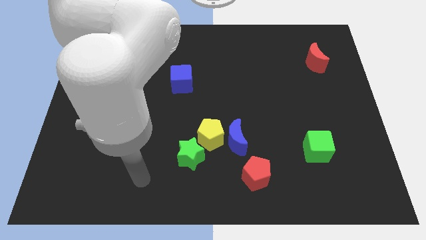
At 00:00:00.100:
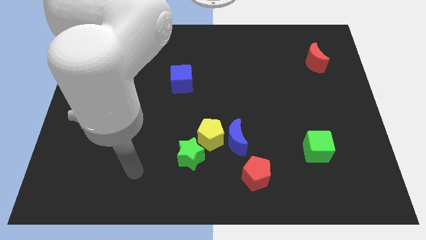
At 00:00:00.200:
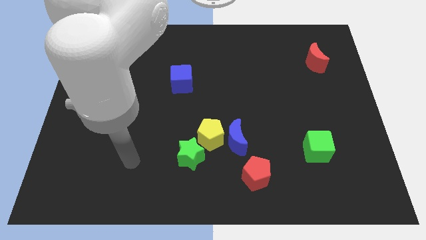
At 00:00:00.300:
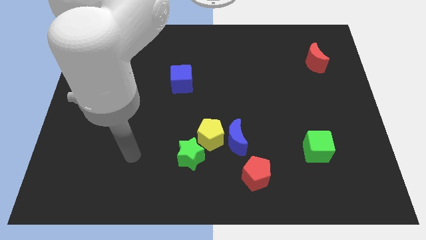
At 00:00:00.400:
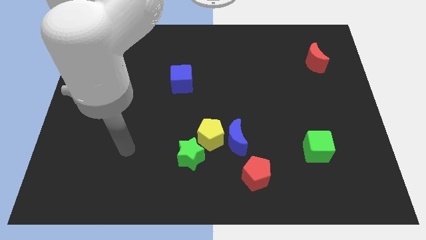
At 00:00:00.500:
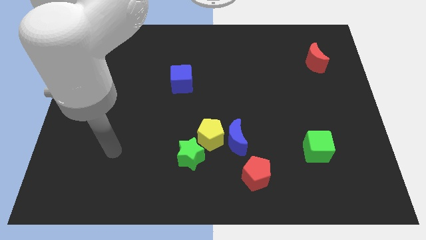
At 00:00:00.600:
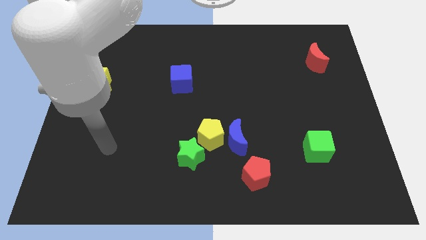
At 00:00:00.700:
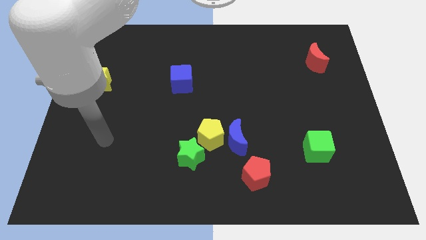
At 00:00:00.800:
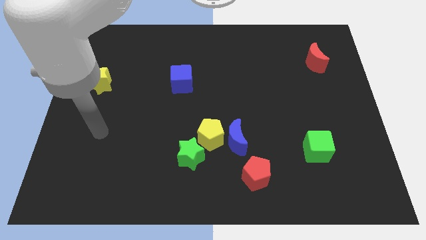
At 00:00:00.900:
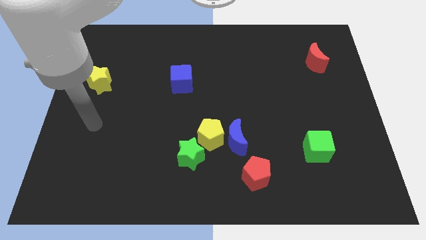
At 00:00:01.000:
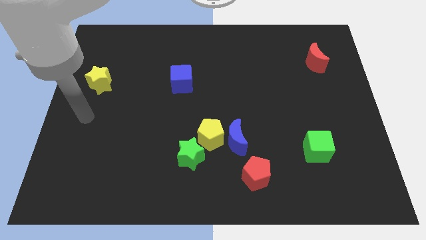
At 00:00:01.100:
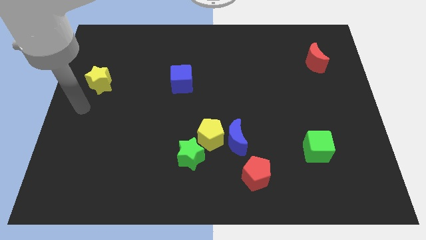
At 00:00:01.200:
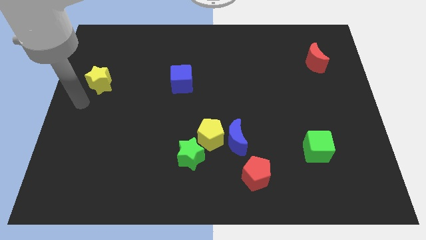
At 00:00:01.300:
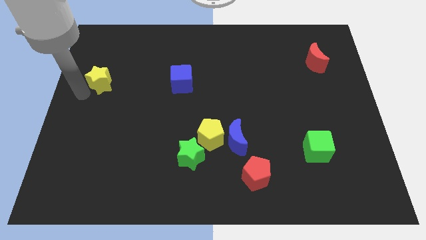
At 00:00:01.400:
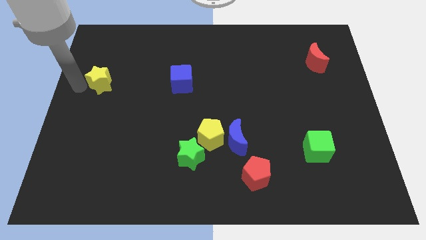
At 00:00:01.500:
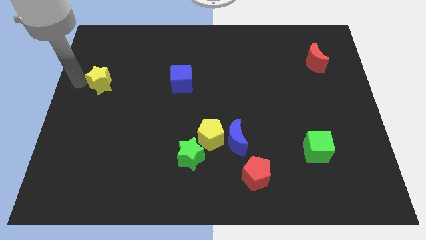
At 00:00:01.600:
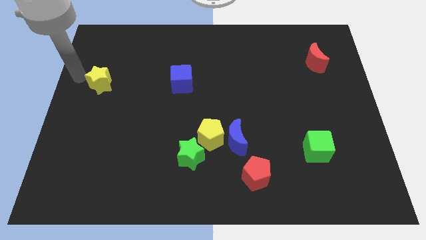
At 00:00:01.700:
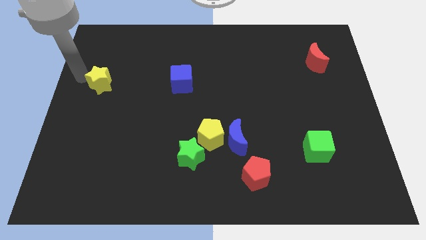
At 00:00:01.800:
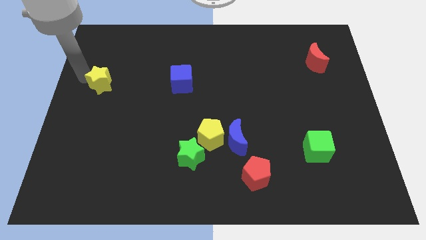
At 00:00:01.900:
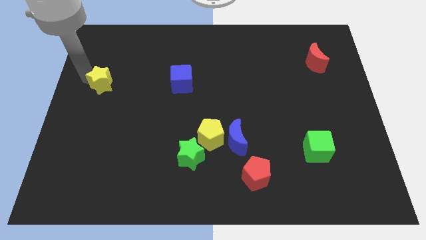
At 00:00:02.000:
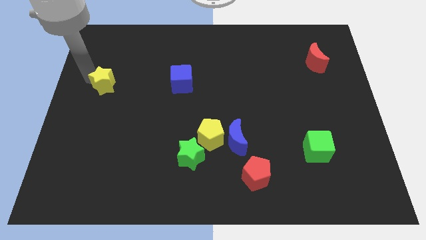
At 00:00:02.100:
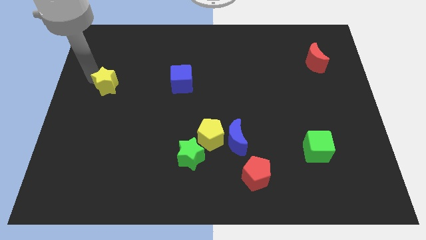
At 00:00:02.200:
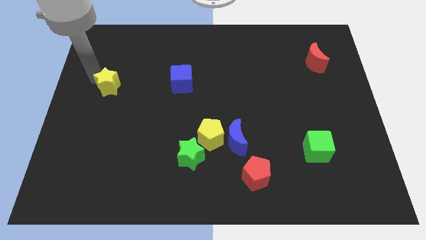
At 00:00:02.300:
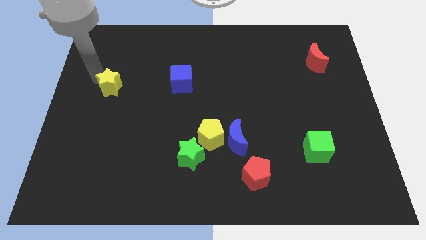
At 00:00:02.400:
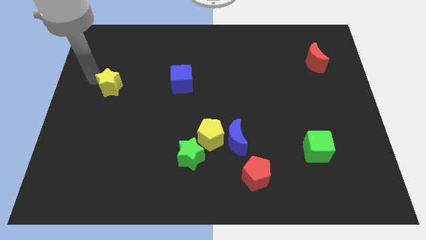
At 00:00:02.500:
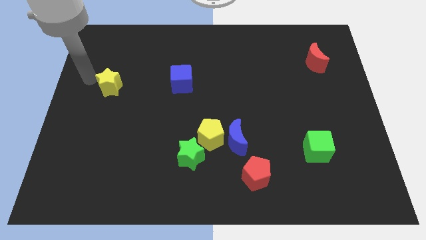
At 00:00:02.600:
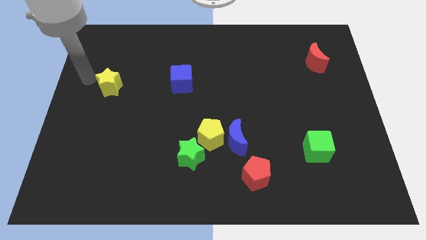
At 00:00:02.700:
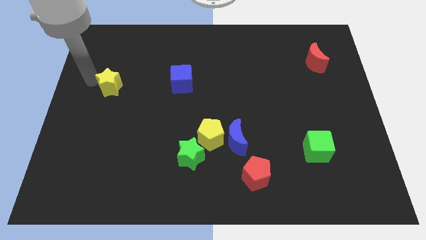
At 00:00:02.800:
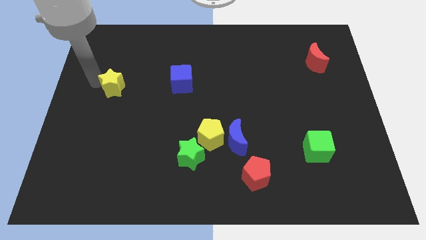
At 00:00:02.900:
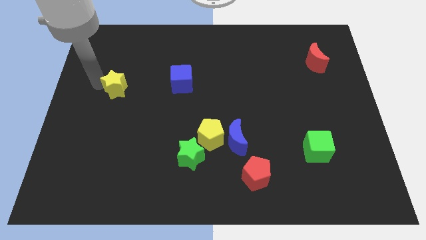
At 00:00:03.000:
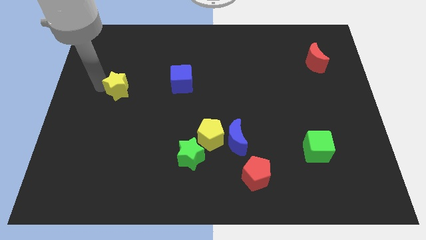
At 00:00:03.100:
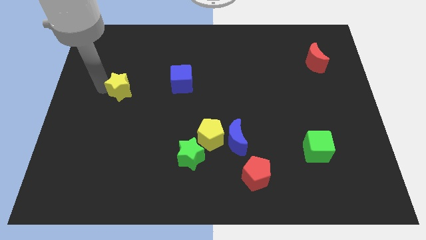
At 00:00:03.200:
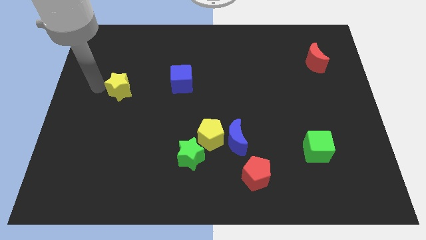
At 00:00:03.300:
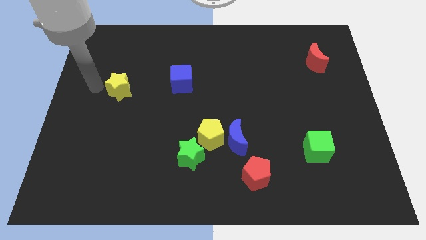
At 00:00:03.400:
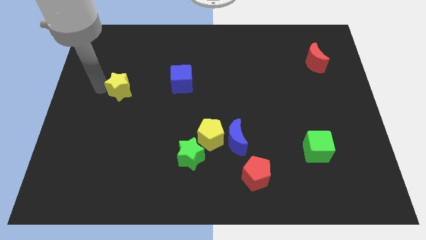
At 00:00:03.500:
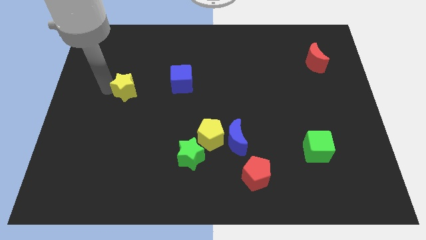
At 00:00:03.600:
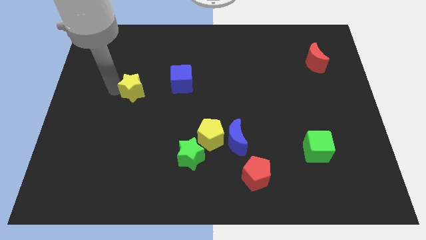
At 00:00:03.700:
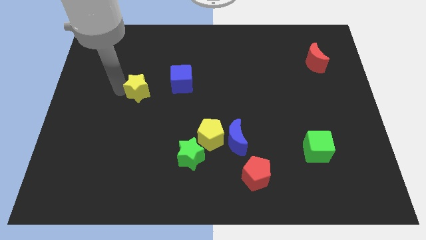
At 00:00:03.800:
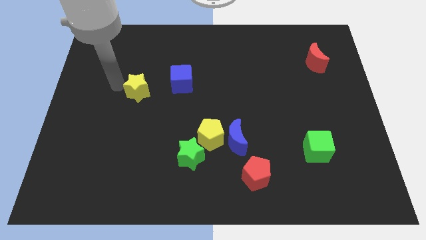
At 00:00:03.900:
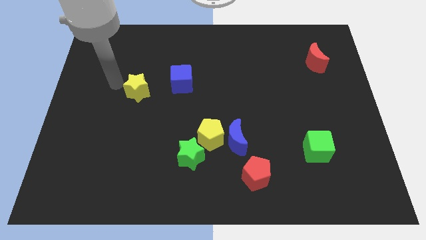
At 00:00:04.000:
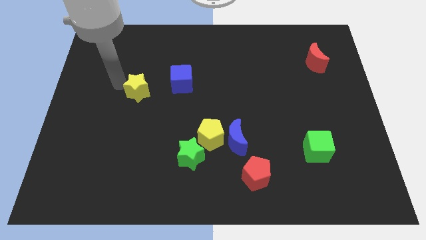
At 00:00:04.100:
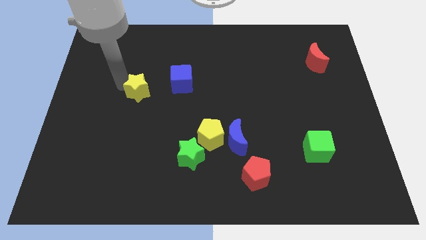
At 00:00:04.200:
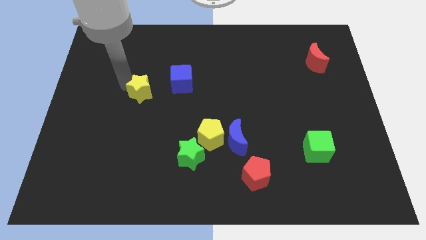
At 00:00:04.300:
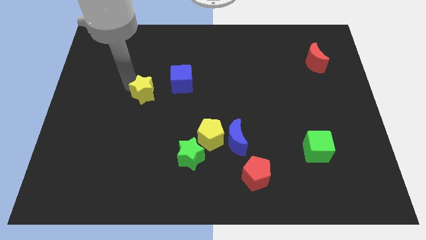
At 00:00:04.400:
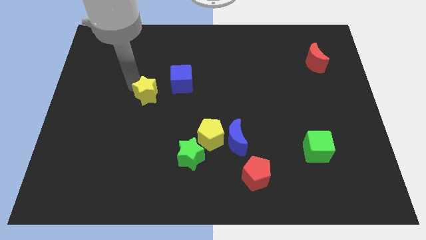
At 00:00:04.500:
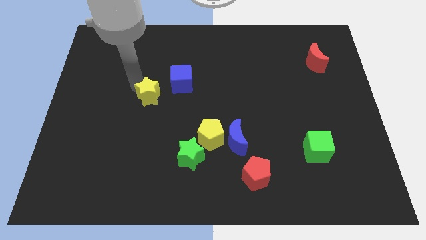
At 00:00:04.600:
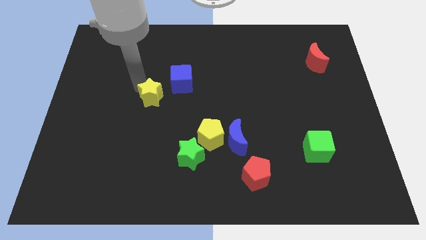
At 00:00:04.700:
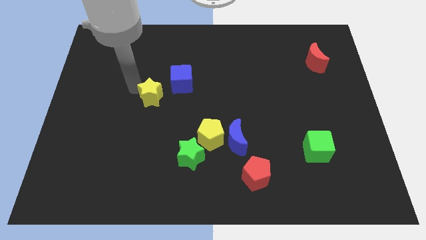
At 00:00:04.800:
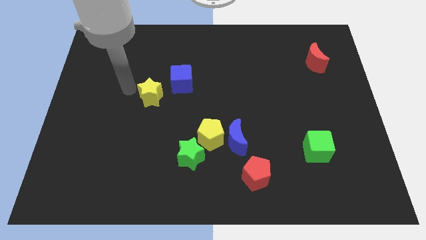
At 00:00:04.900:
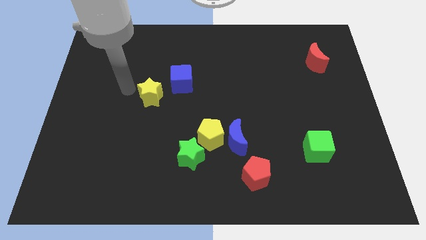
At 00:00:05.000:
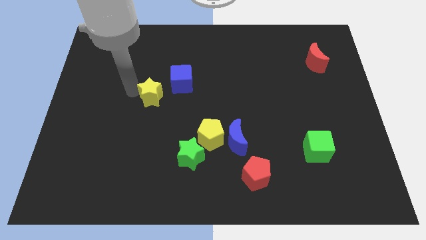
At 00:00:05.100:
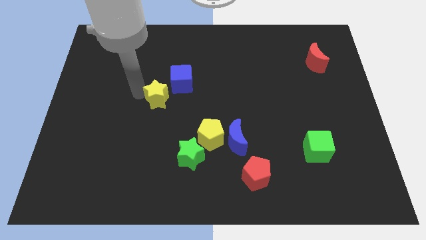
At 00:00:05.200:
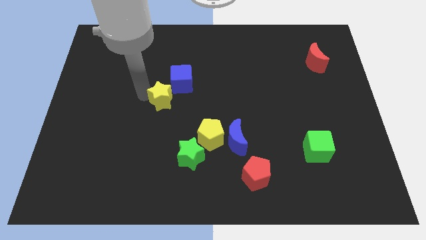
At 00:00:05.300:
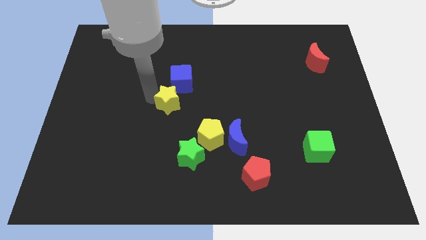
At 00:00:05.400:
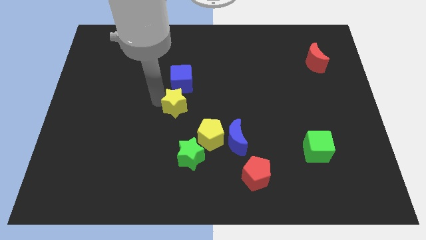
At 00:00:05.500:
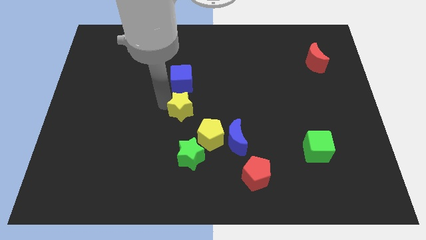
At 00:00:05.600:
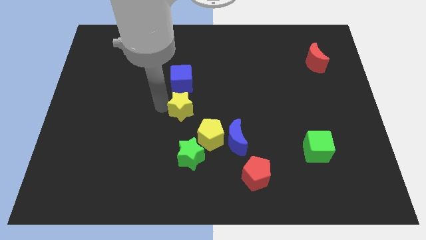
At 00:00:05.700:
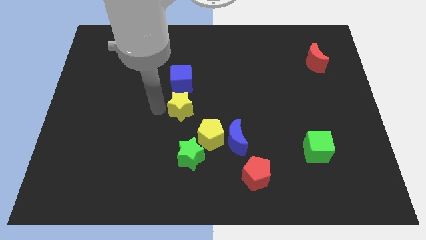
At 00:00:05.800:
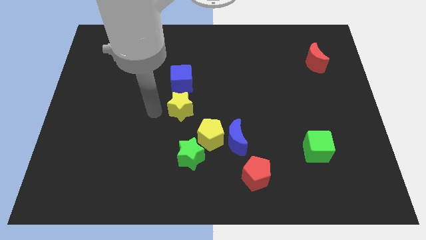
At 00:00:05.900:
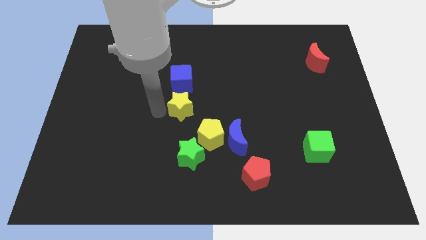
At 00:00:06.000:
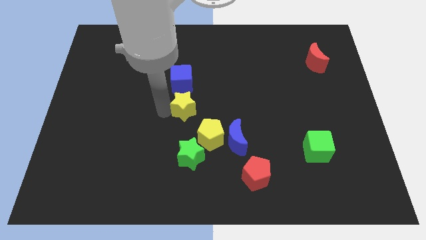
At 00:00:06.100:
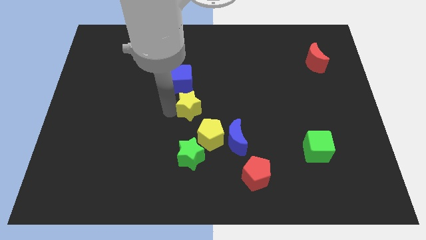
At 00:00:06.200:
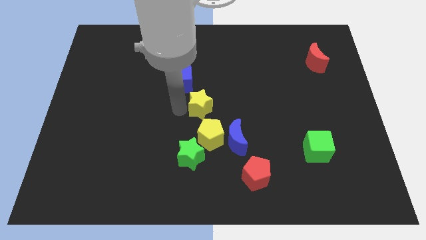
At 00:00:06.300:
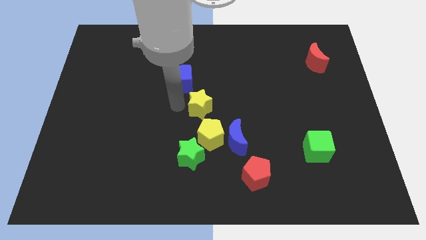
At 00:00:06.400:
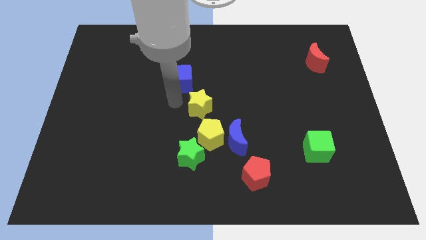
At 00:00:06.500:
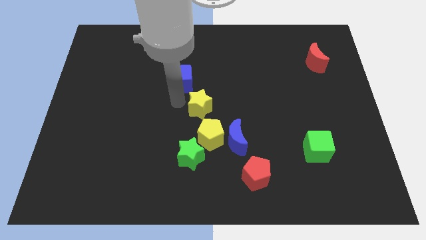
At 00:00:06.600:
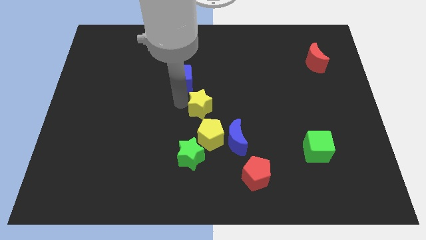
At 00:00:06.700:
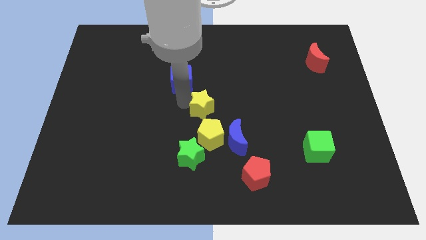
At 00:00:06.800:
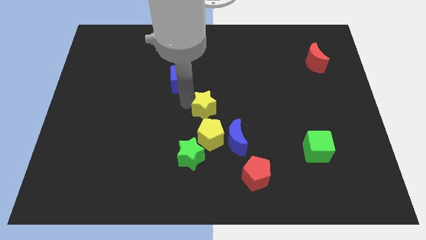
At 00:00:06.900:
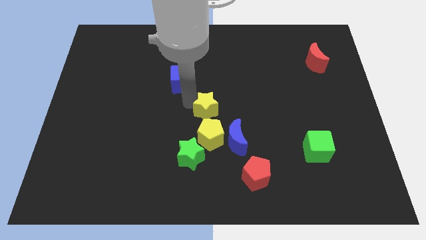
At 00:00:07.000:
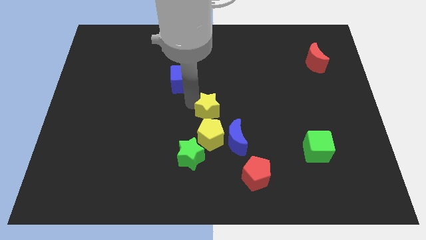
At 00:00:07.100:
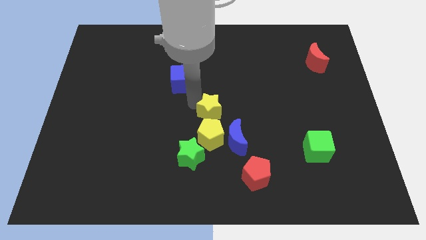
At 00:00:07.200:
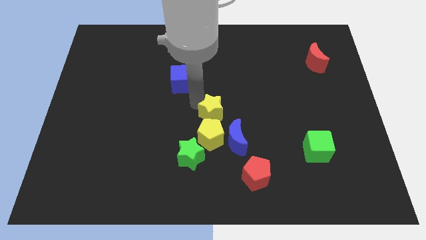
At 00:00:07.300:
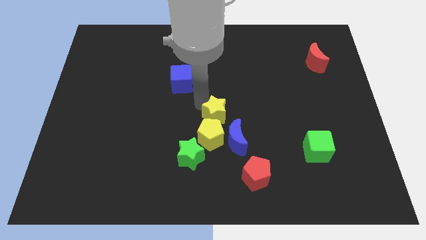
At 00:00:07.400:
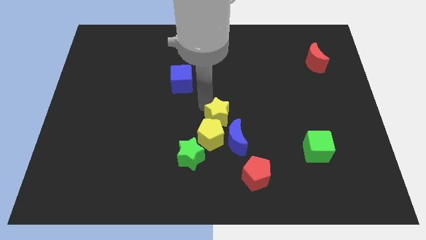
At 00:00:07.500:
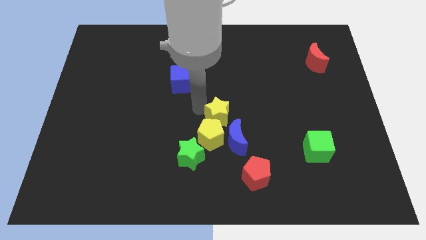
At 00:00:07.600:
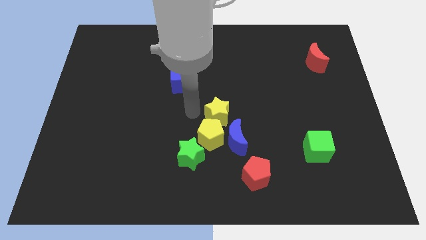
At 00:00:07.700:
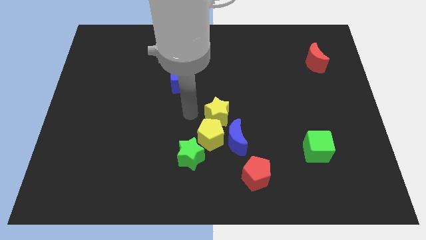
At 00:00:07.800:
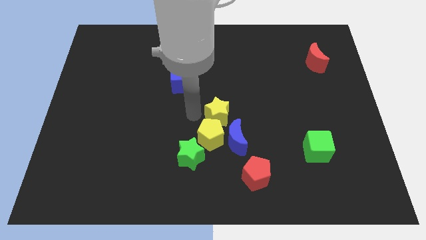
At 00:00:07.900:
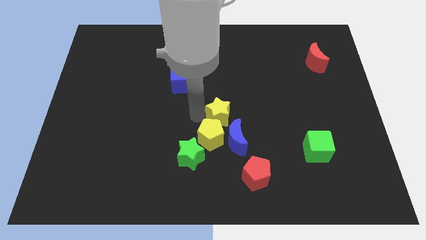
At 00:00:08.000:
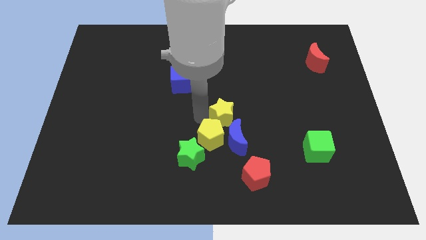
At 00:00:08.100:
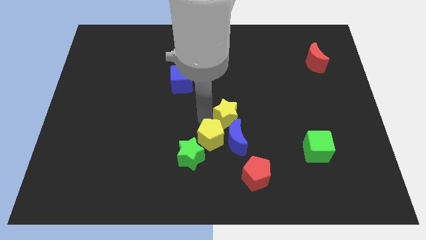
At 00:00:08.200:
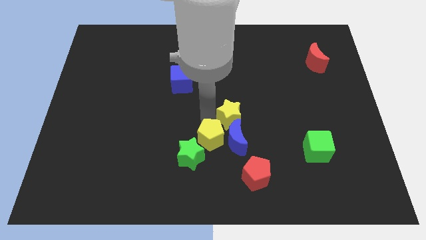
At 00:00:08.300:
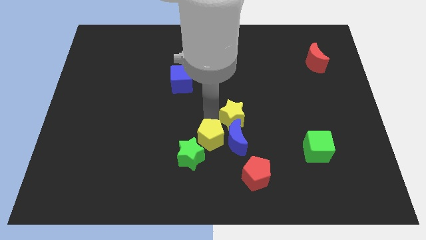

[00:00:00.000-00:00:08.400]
put the yellow star diagonally up and to the right of the blue moon
